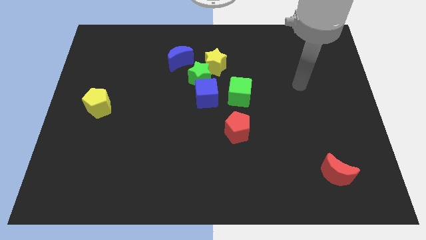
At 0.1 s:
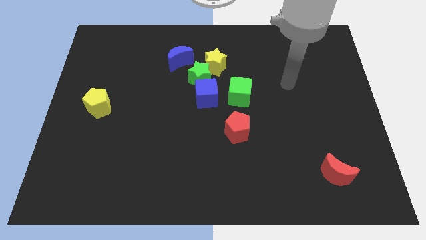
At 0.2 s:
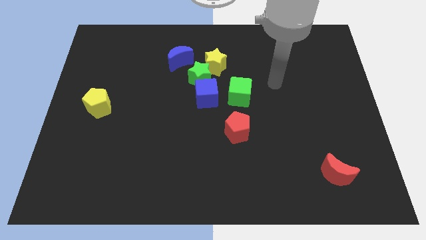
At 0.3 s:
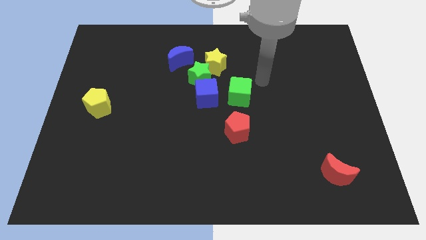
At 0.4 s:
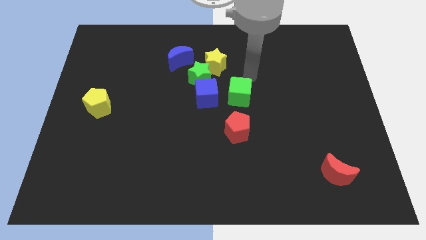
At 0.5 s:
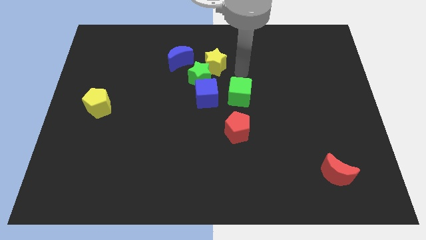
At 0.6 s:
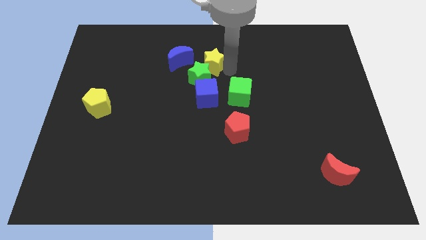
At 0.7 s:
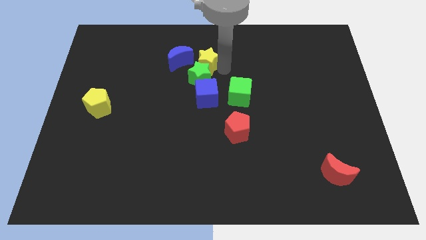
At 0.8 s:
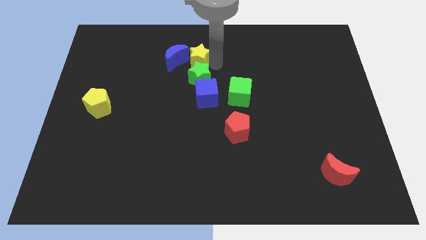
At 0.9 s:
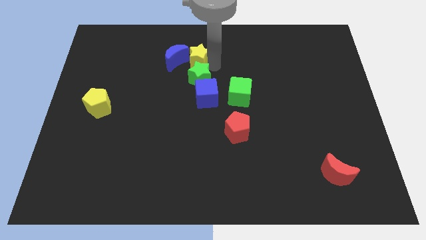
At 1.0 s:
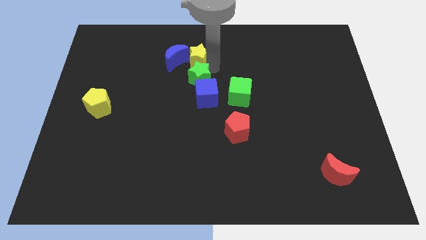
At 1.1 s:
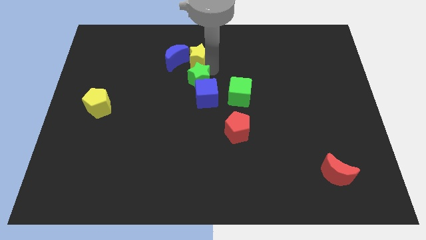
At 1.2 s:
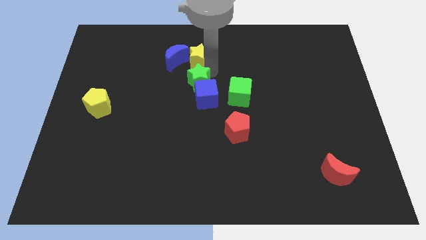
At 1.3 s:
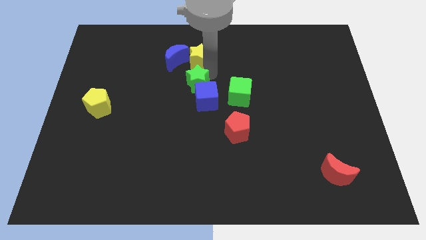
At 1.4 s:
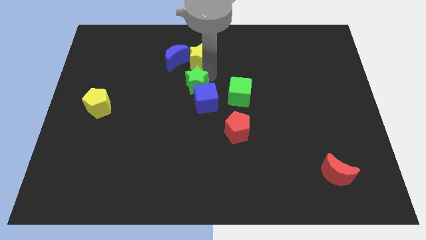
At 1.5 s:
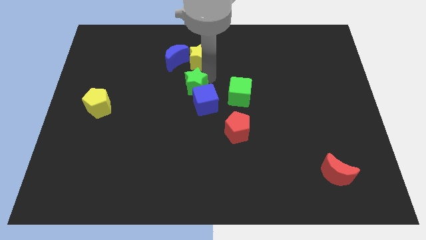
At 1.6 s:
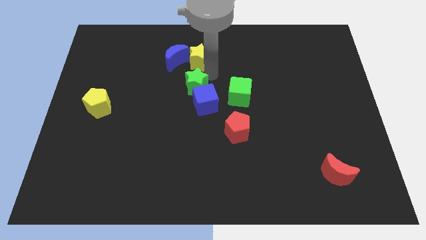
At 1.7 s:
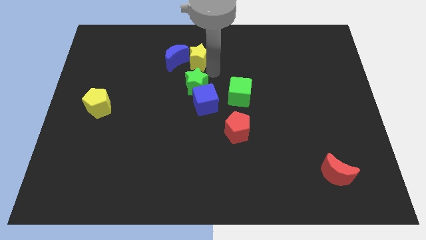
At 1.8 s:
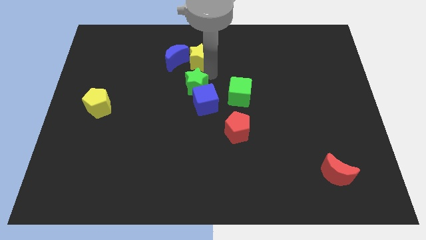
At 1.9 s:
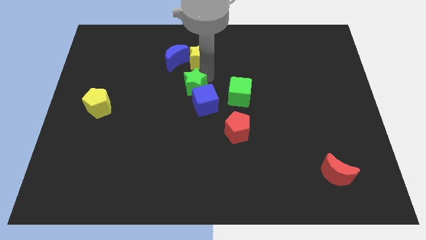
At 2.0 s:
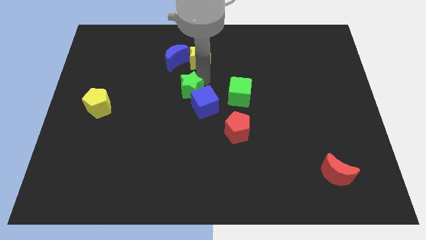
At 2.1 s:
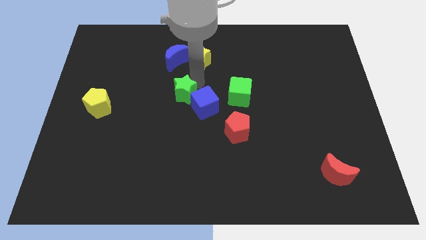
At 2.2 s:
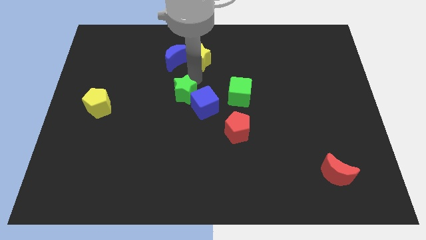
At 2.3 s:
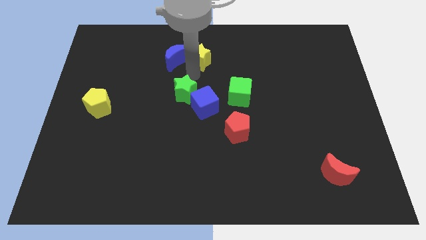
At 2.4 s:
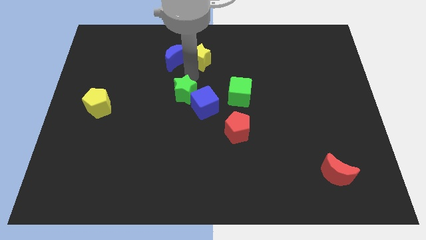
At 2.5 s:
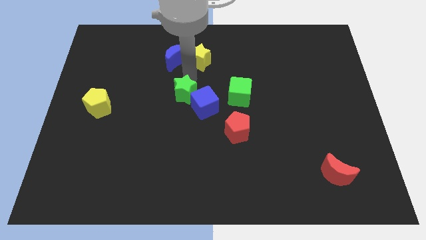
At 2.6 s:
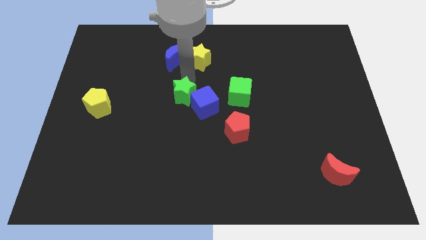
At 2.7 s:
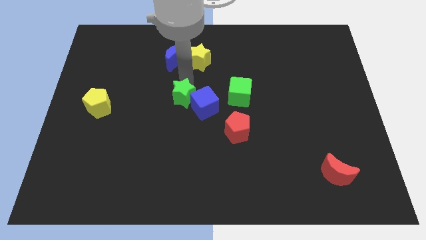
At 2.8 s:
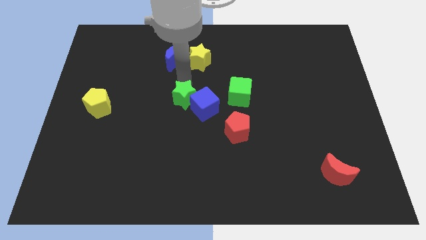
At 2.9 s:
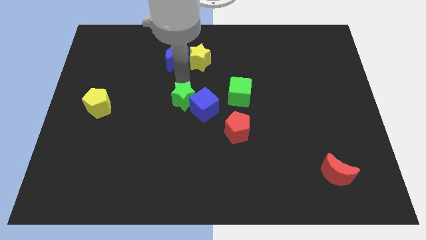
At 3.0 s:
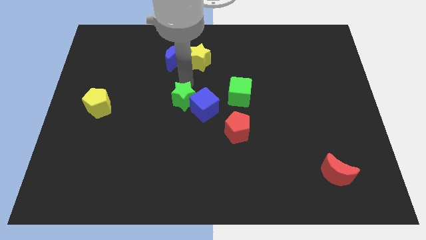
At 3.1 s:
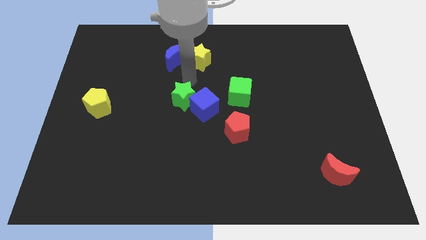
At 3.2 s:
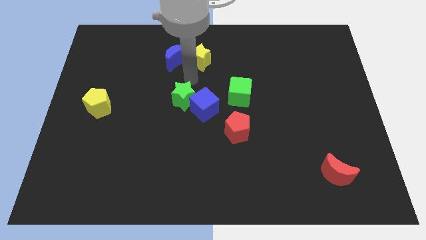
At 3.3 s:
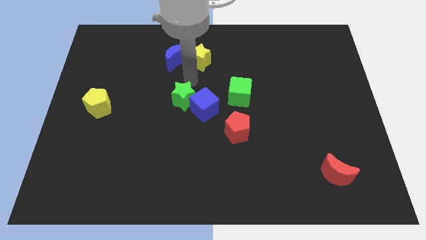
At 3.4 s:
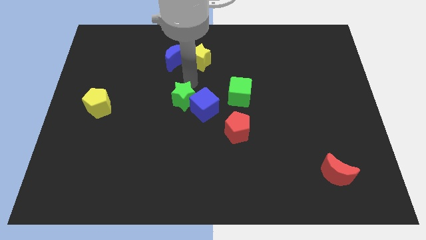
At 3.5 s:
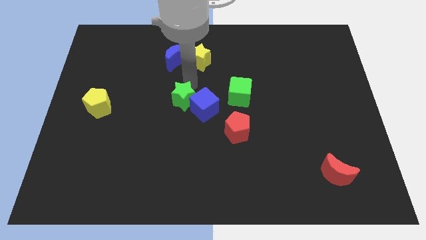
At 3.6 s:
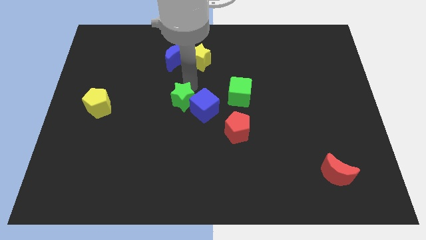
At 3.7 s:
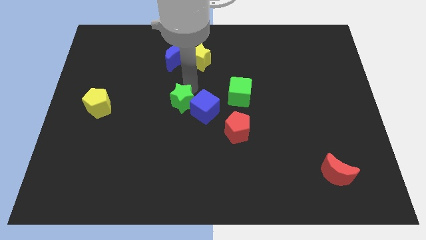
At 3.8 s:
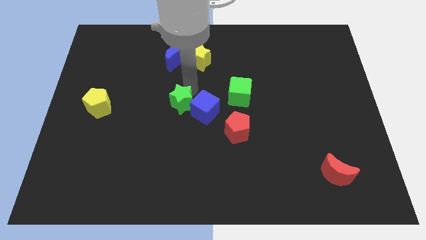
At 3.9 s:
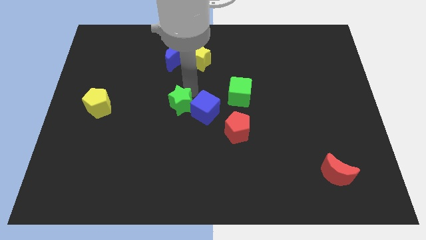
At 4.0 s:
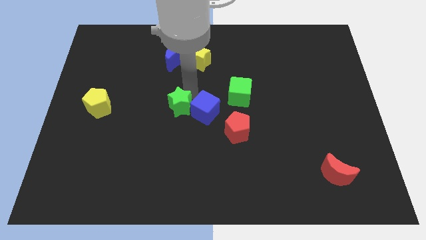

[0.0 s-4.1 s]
pull the green star apart from the group

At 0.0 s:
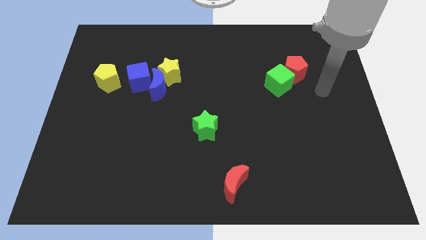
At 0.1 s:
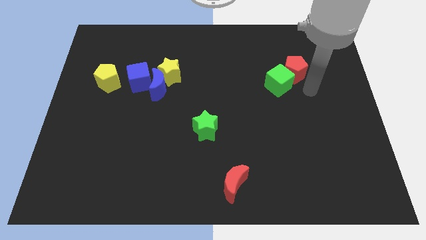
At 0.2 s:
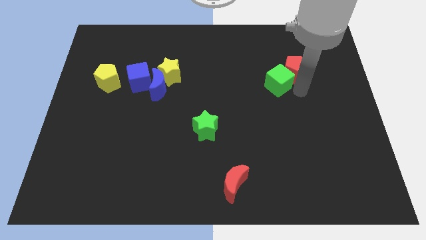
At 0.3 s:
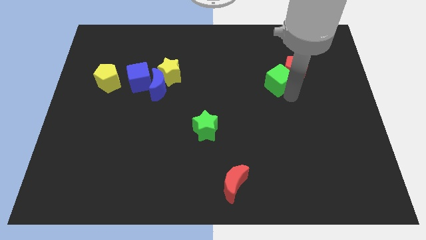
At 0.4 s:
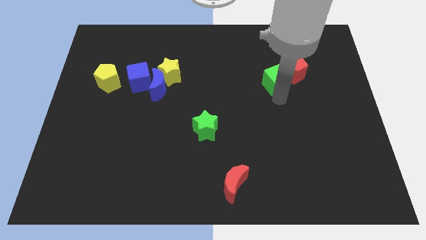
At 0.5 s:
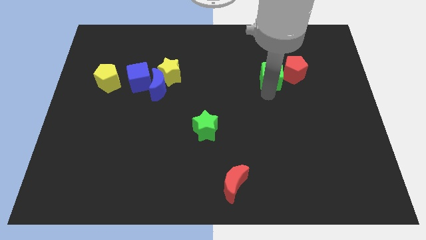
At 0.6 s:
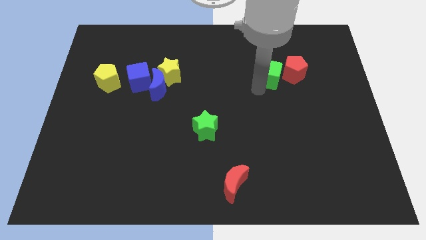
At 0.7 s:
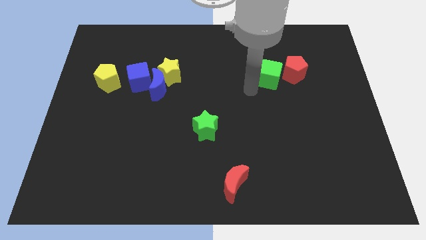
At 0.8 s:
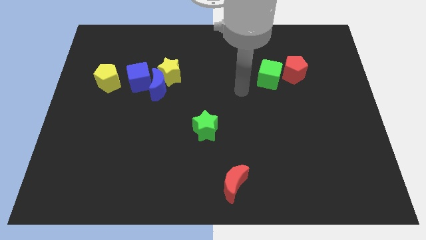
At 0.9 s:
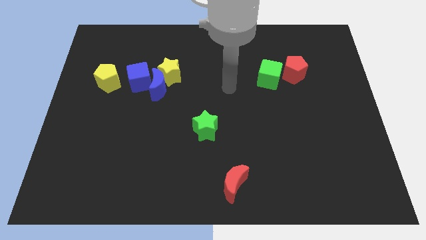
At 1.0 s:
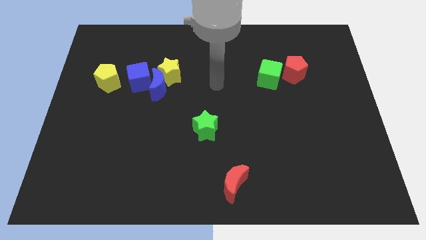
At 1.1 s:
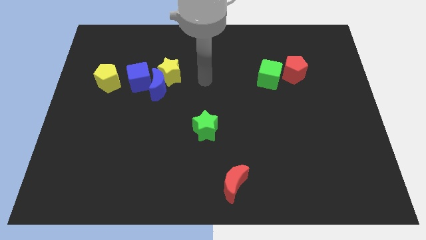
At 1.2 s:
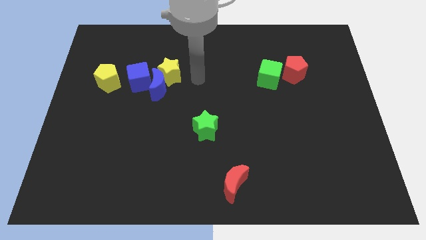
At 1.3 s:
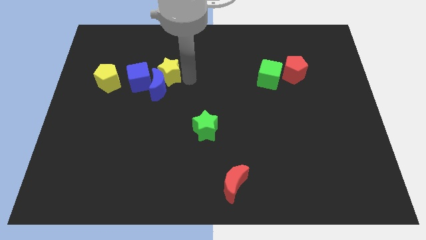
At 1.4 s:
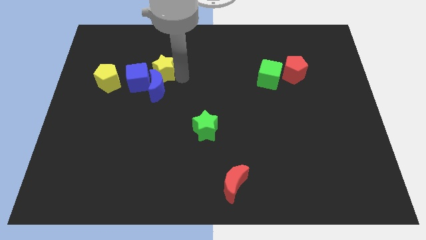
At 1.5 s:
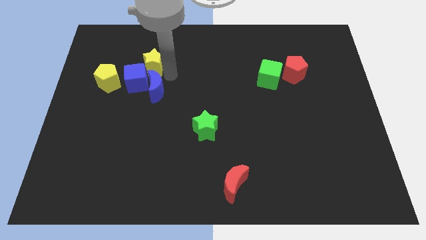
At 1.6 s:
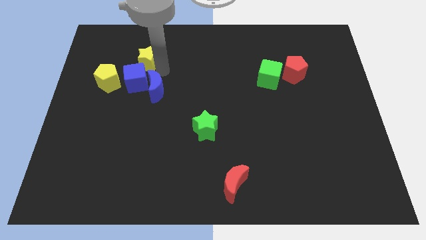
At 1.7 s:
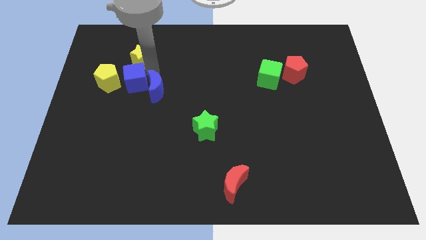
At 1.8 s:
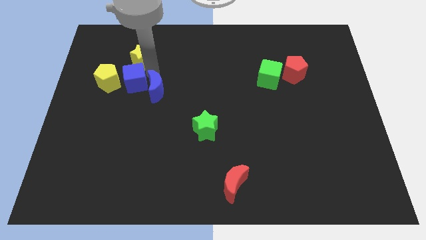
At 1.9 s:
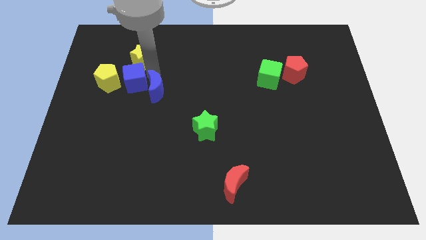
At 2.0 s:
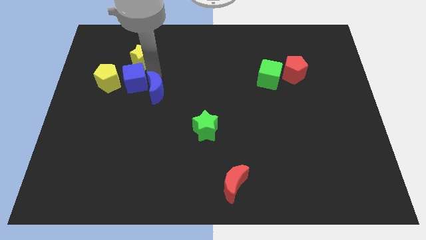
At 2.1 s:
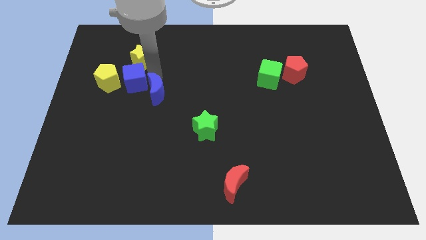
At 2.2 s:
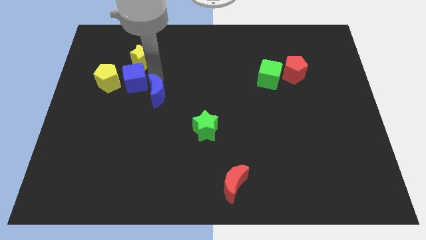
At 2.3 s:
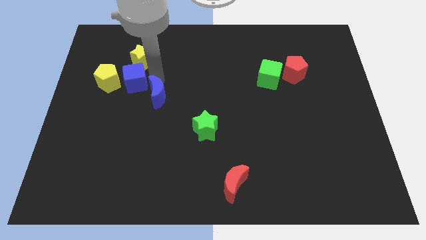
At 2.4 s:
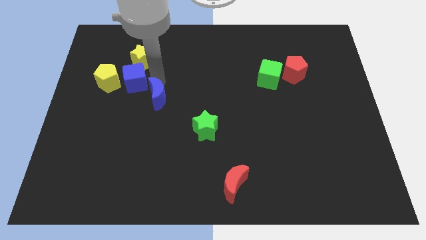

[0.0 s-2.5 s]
move the blue moon away from the yellow star and blue cube

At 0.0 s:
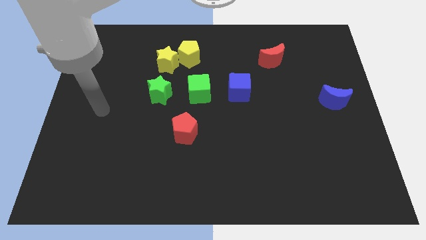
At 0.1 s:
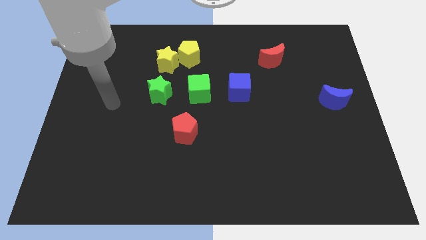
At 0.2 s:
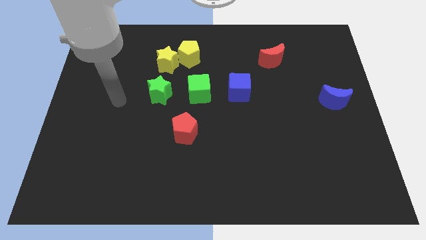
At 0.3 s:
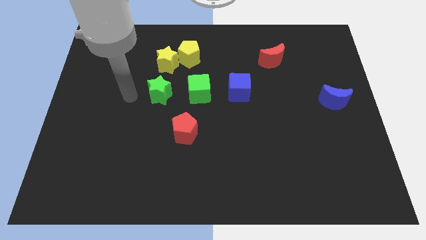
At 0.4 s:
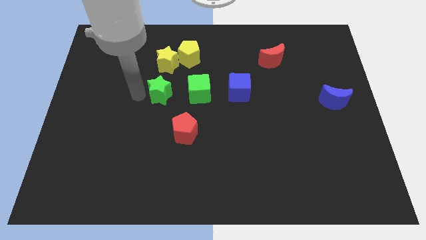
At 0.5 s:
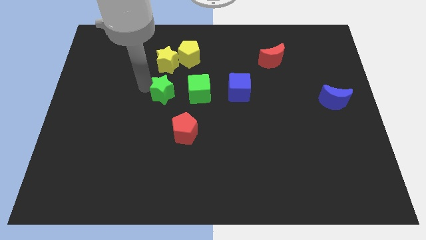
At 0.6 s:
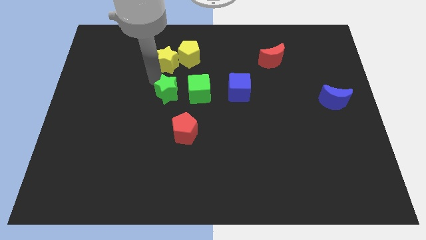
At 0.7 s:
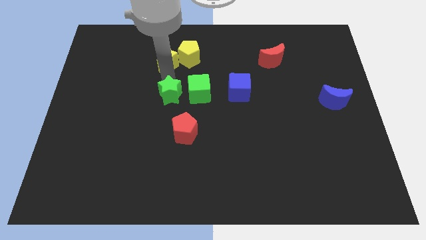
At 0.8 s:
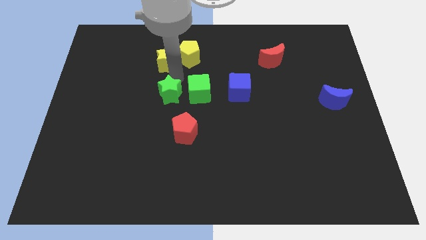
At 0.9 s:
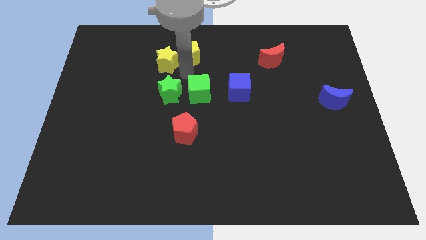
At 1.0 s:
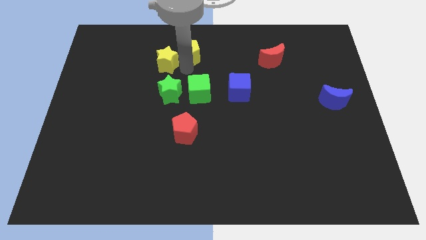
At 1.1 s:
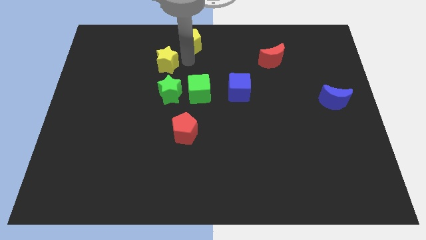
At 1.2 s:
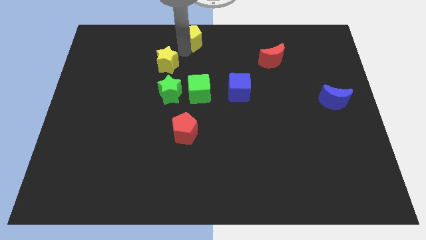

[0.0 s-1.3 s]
move the yellow star away from the yellow pentagon

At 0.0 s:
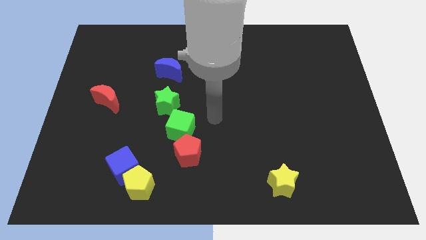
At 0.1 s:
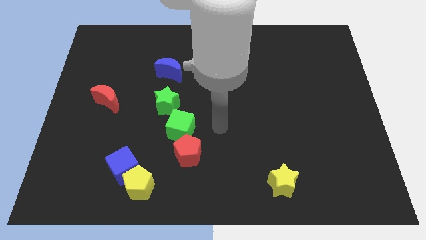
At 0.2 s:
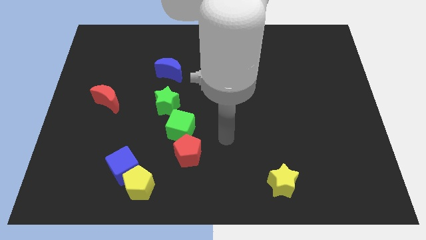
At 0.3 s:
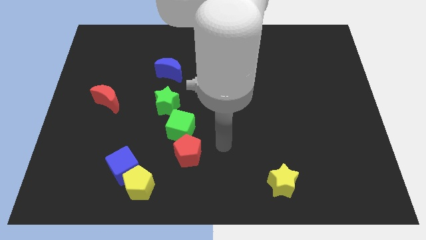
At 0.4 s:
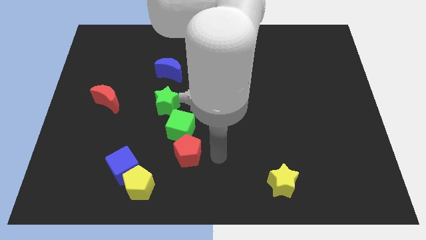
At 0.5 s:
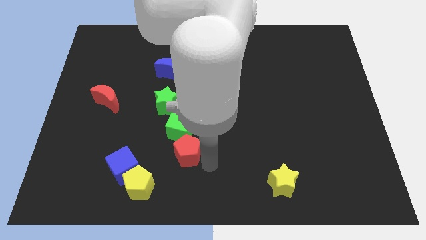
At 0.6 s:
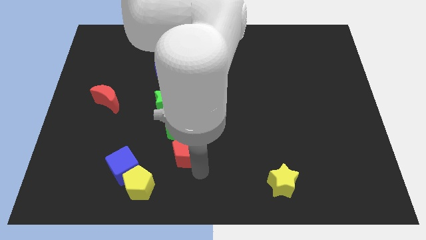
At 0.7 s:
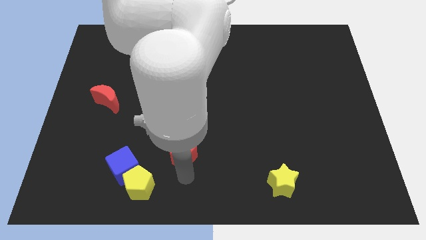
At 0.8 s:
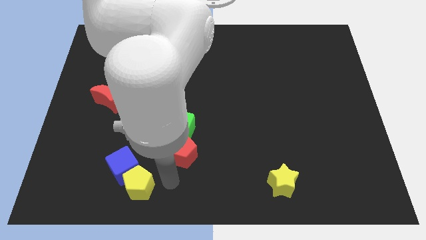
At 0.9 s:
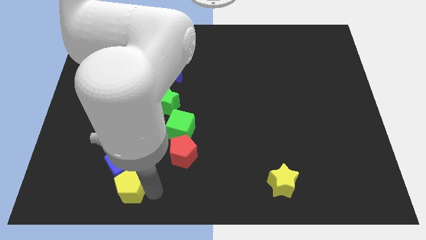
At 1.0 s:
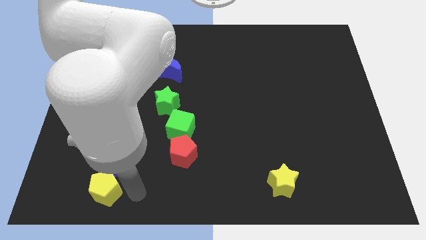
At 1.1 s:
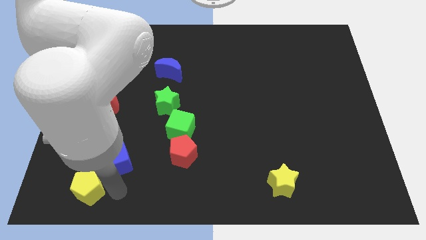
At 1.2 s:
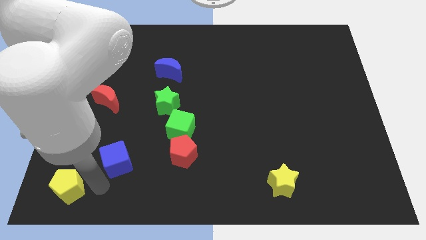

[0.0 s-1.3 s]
move the blue cube away from the yellow pentagon

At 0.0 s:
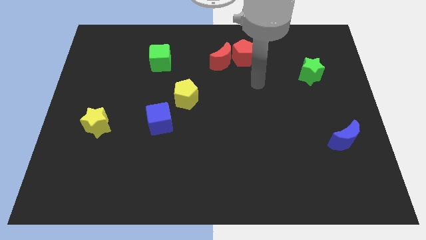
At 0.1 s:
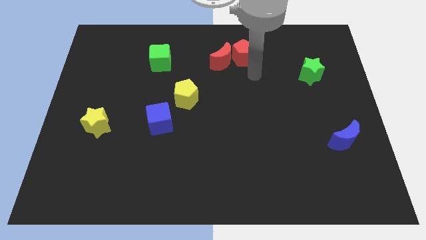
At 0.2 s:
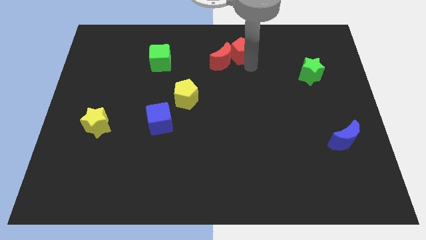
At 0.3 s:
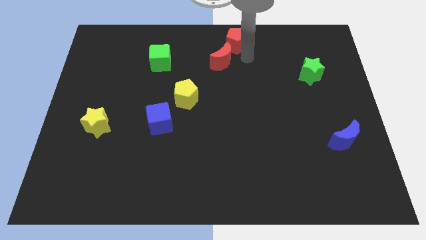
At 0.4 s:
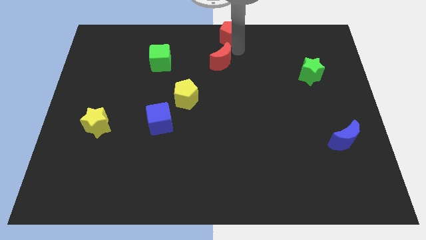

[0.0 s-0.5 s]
move the red moon away from the red pentagon
